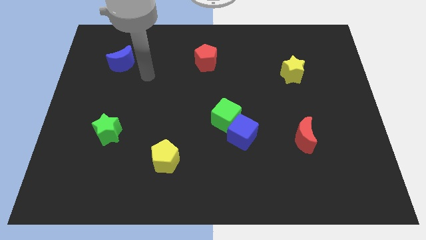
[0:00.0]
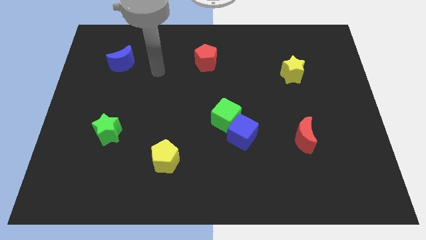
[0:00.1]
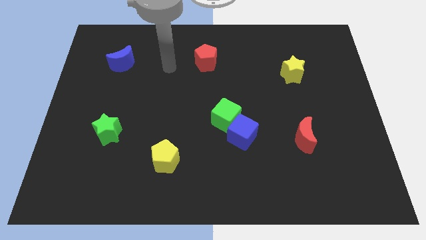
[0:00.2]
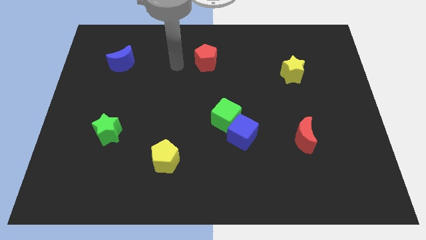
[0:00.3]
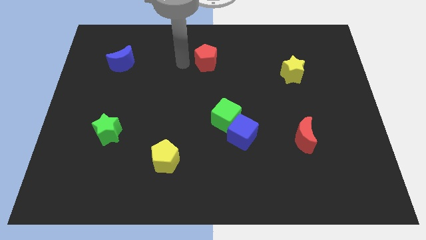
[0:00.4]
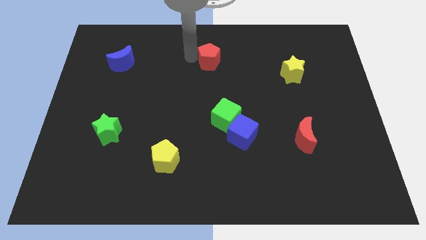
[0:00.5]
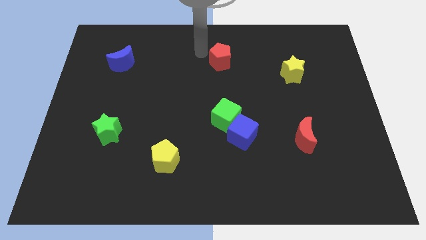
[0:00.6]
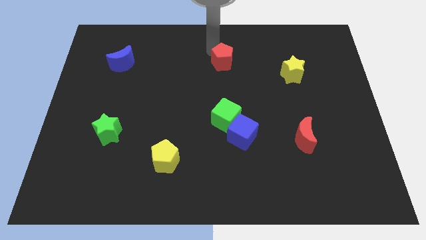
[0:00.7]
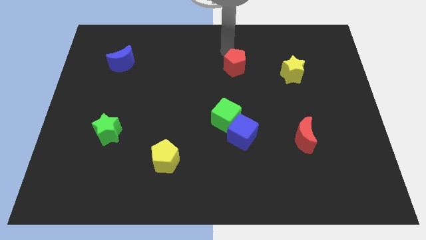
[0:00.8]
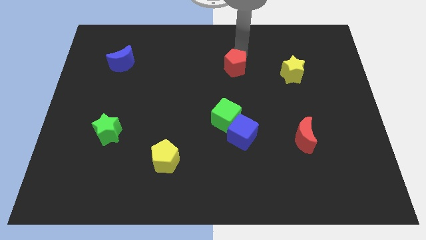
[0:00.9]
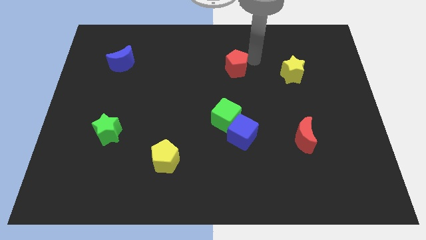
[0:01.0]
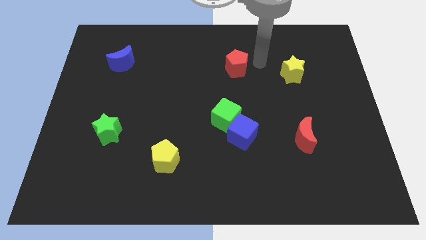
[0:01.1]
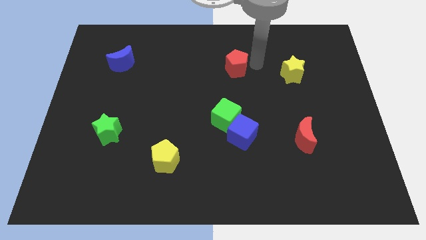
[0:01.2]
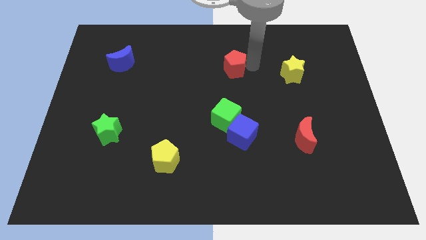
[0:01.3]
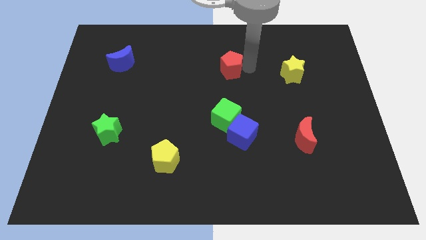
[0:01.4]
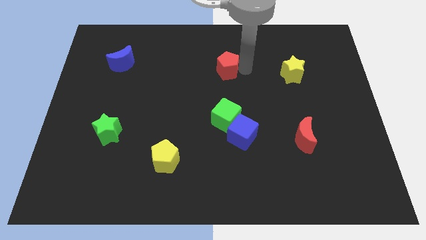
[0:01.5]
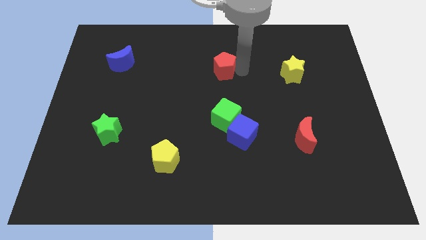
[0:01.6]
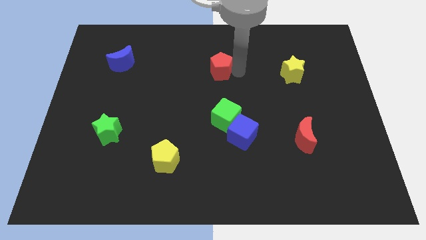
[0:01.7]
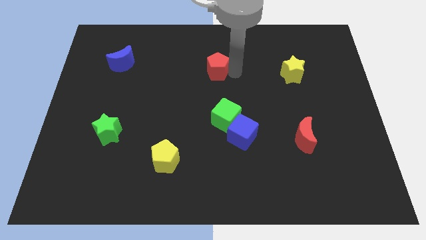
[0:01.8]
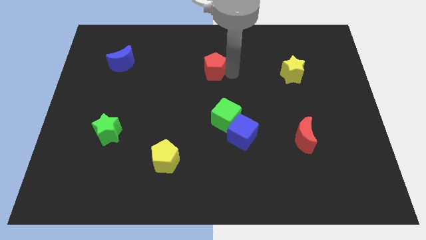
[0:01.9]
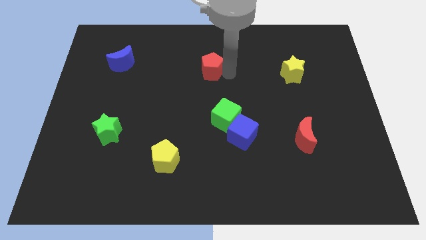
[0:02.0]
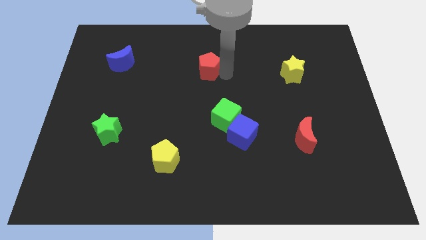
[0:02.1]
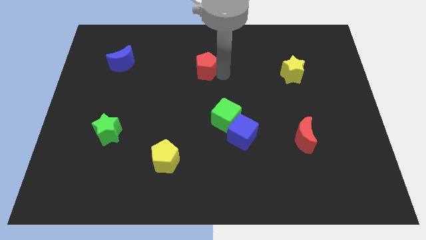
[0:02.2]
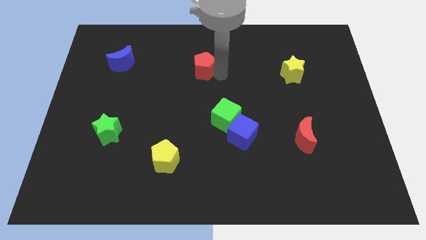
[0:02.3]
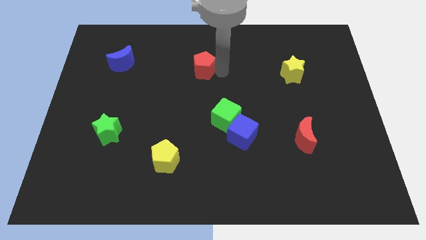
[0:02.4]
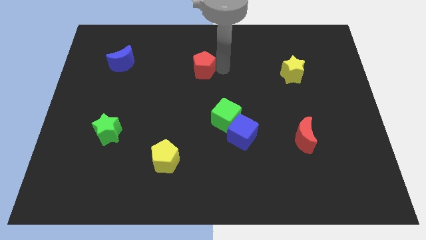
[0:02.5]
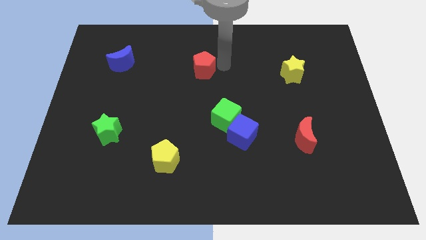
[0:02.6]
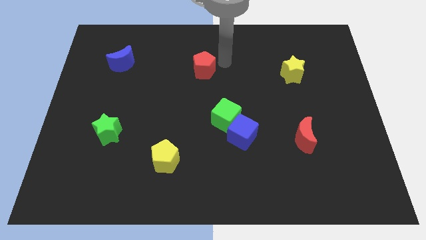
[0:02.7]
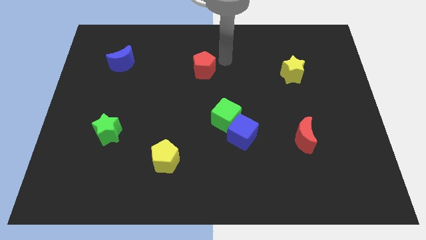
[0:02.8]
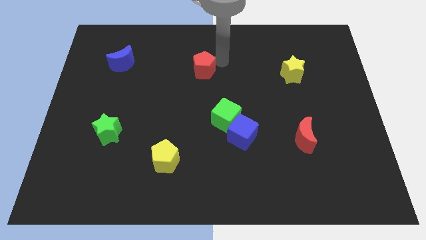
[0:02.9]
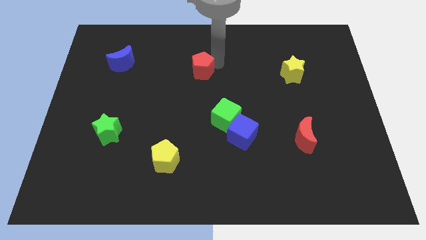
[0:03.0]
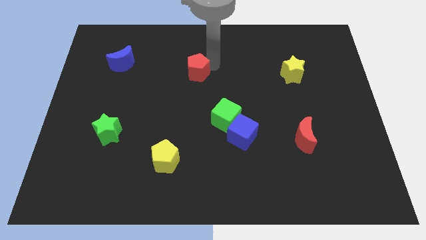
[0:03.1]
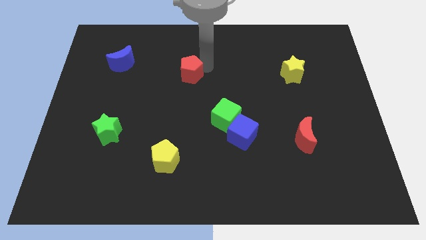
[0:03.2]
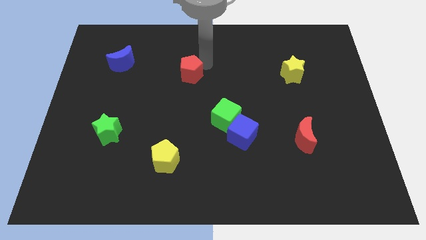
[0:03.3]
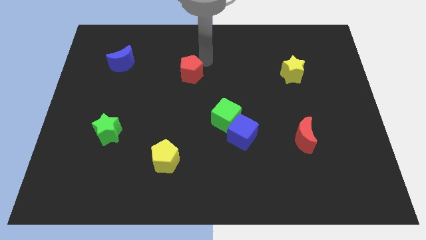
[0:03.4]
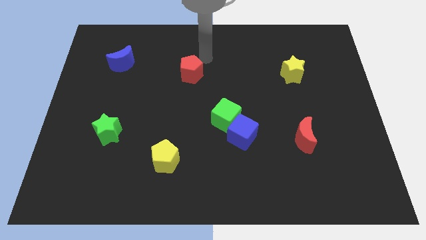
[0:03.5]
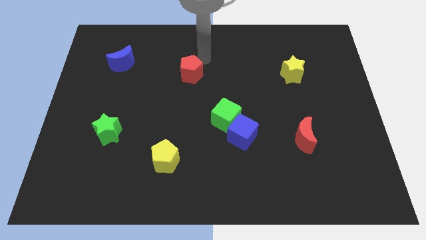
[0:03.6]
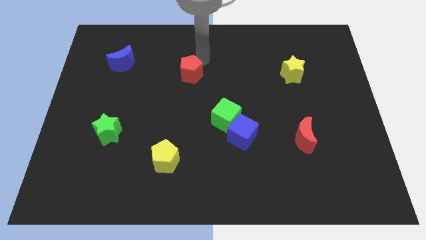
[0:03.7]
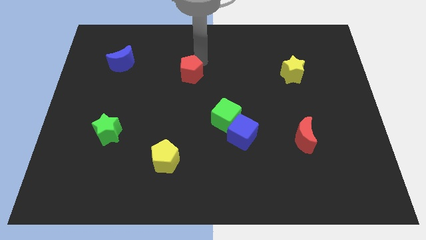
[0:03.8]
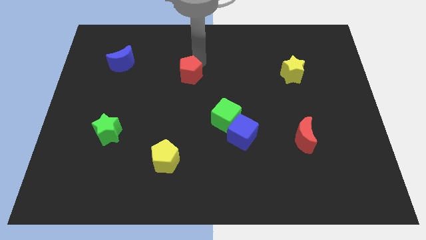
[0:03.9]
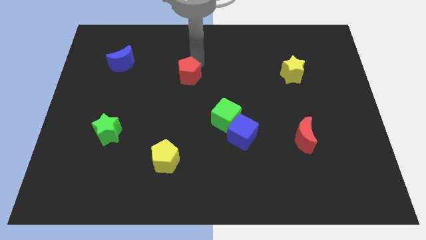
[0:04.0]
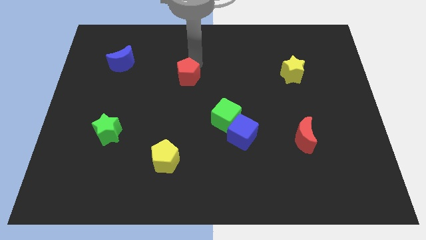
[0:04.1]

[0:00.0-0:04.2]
slightly push the red pentagon down and left

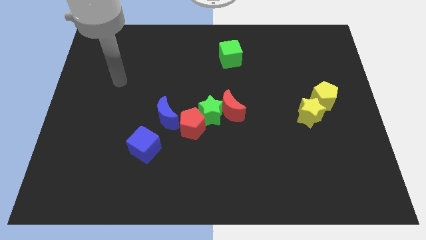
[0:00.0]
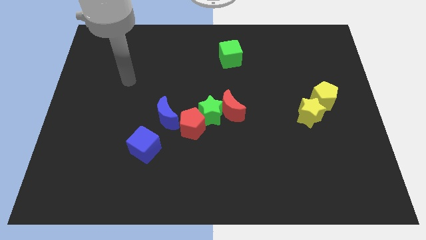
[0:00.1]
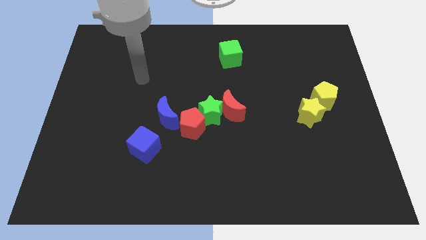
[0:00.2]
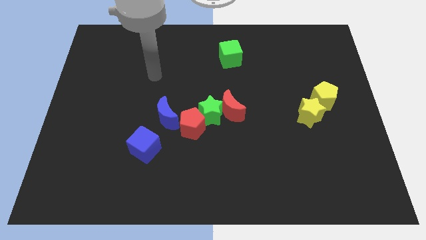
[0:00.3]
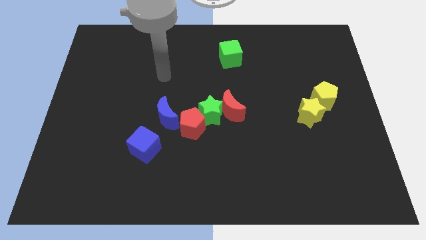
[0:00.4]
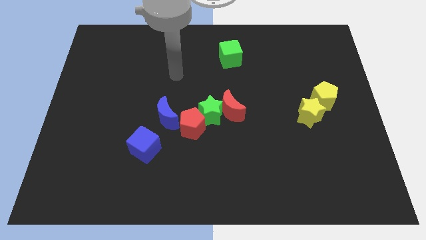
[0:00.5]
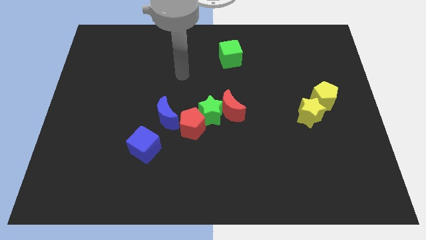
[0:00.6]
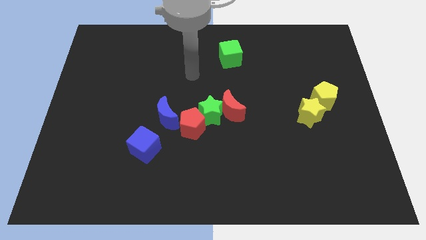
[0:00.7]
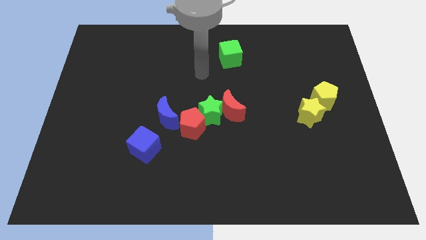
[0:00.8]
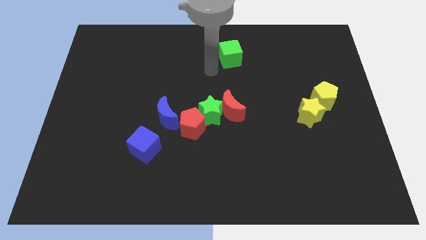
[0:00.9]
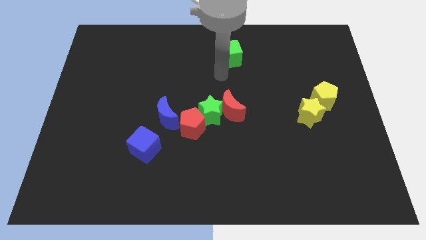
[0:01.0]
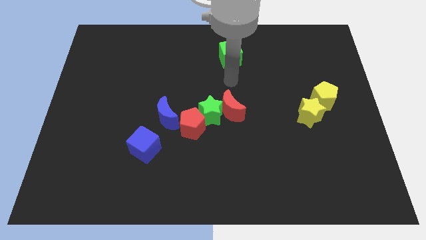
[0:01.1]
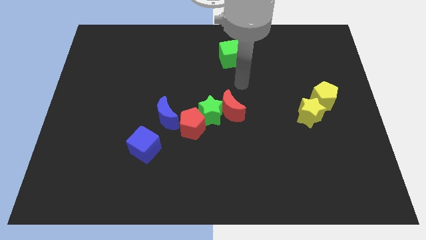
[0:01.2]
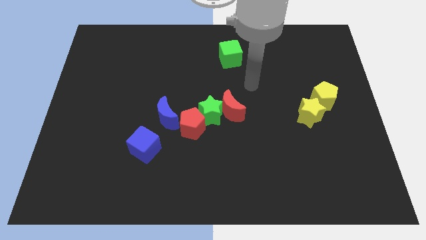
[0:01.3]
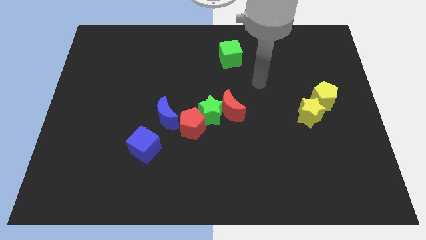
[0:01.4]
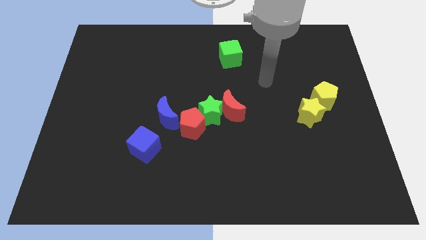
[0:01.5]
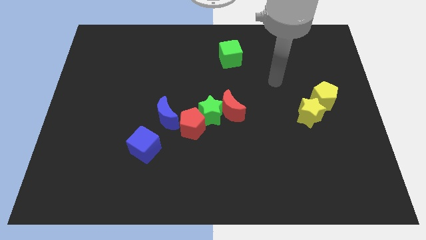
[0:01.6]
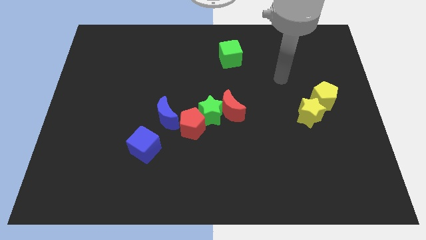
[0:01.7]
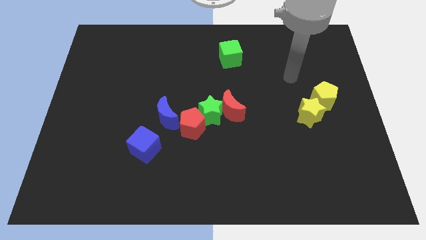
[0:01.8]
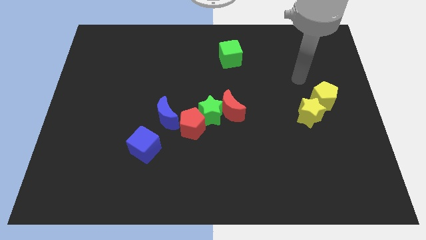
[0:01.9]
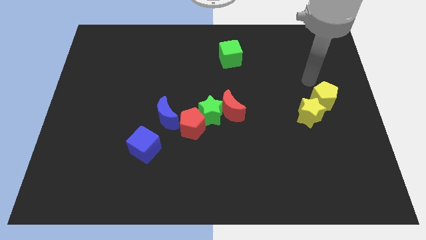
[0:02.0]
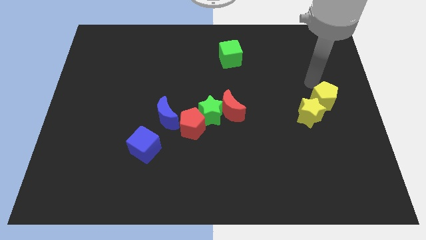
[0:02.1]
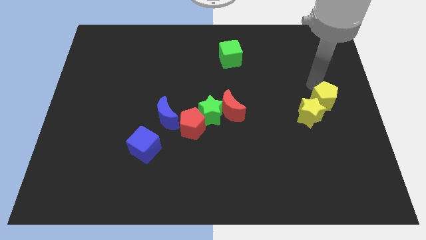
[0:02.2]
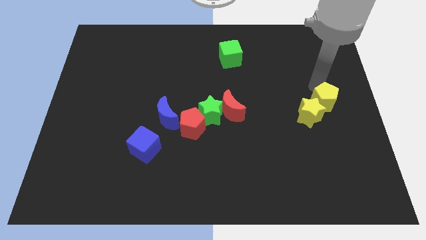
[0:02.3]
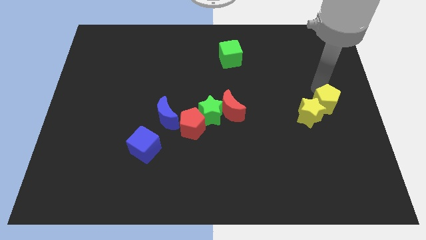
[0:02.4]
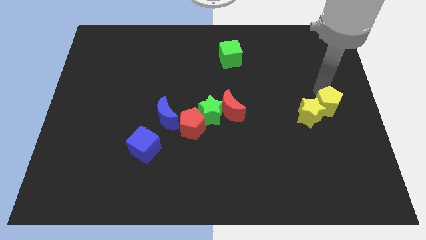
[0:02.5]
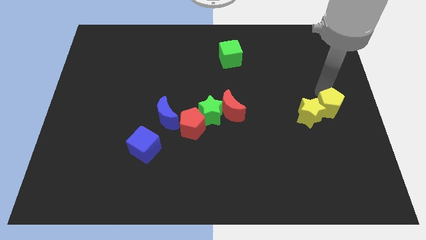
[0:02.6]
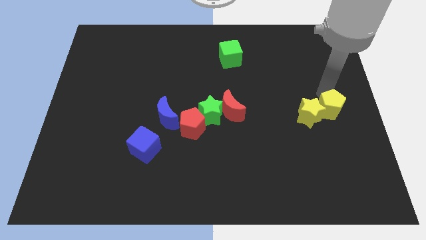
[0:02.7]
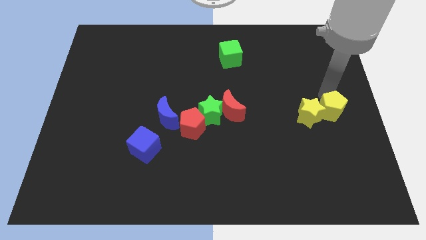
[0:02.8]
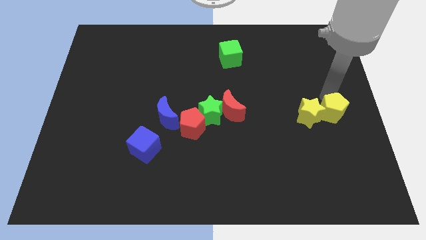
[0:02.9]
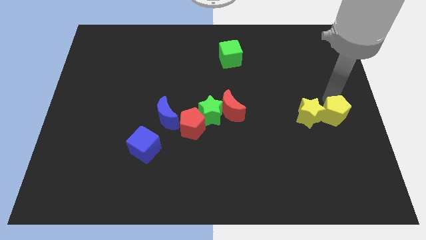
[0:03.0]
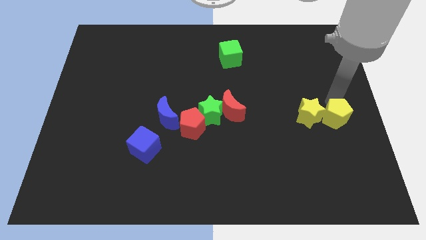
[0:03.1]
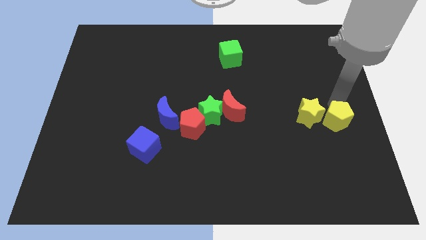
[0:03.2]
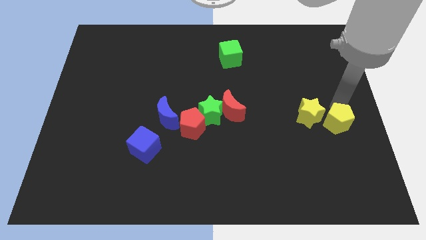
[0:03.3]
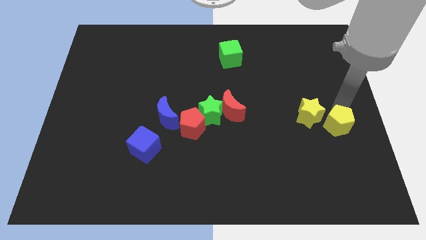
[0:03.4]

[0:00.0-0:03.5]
slide the yellow pentagon downwards somewhat

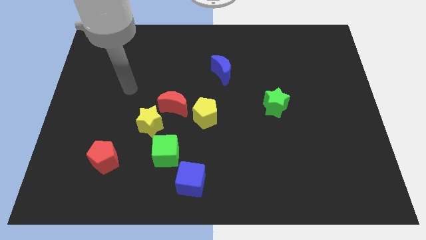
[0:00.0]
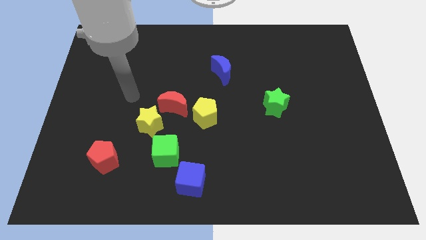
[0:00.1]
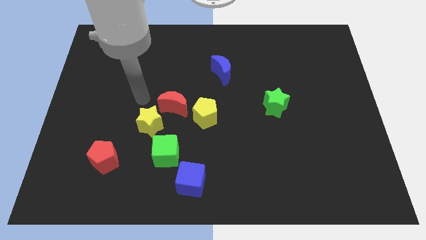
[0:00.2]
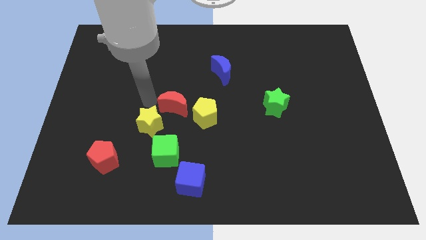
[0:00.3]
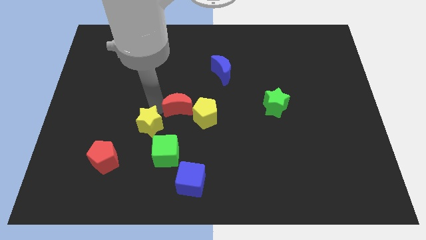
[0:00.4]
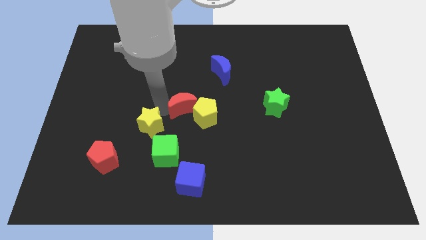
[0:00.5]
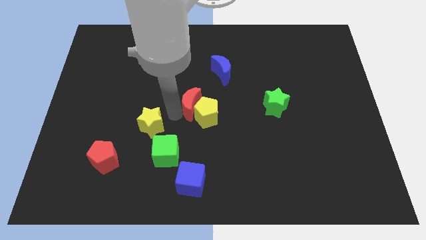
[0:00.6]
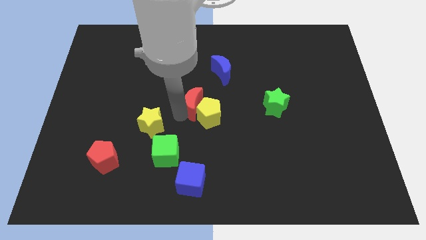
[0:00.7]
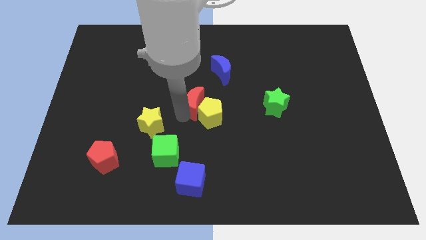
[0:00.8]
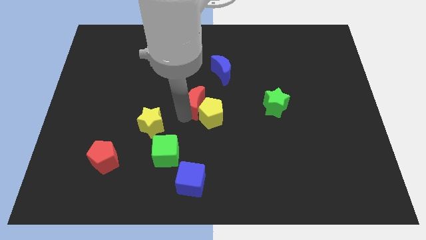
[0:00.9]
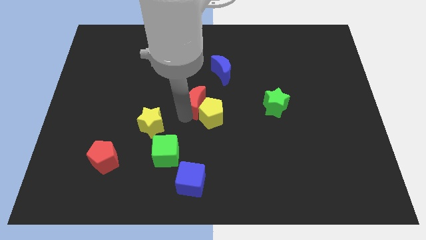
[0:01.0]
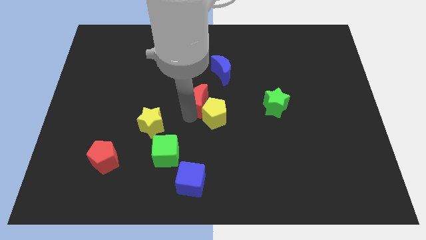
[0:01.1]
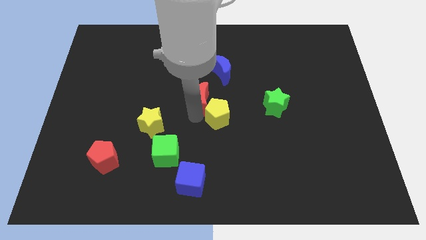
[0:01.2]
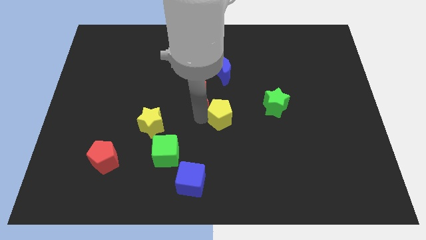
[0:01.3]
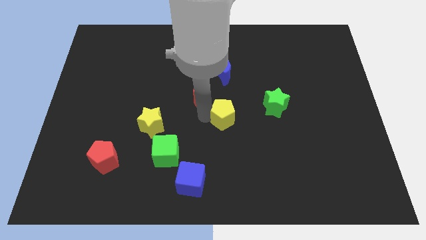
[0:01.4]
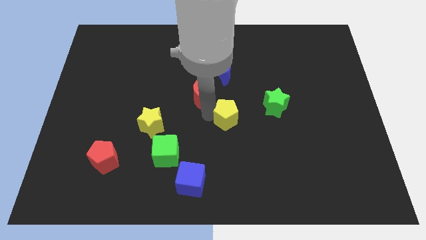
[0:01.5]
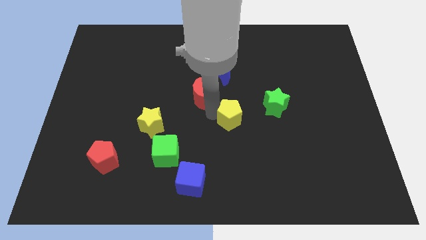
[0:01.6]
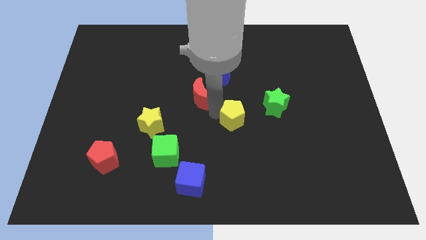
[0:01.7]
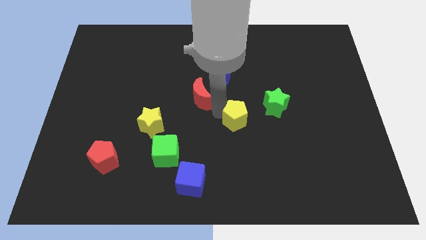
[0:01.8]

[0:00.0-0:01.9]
push the yellow pentagon to the right slightly
